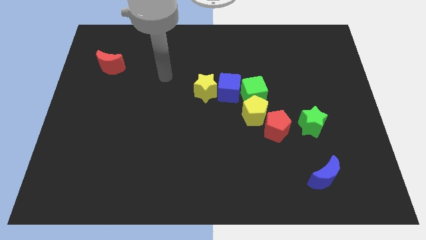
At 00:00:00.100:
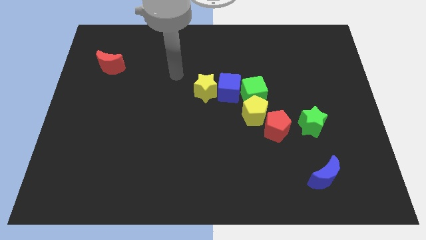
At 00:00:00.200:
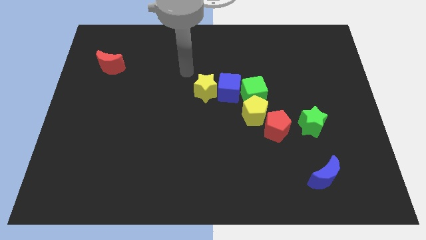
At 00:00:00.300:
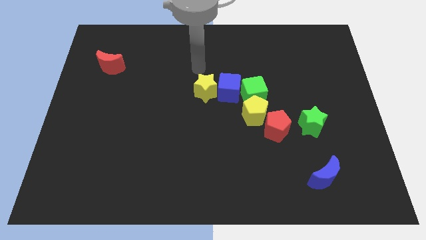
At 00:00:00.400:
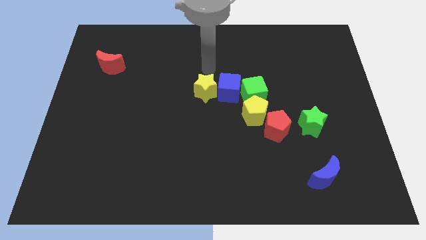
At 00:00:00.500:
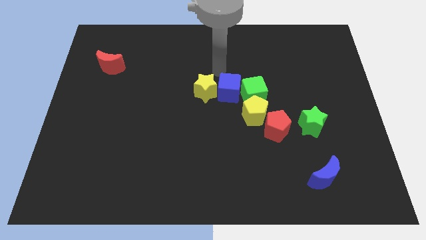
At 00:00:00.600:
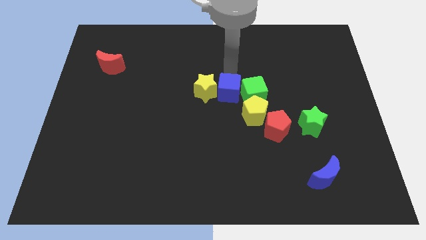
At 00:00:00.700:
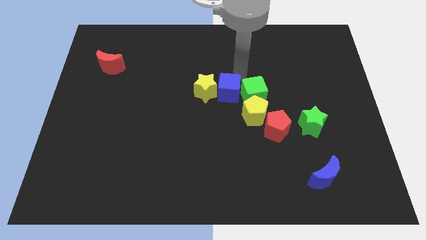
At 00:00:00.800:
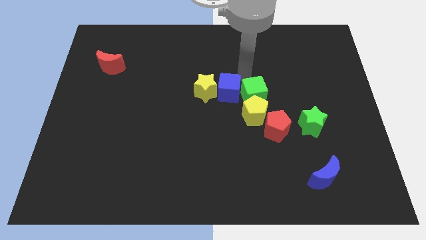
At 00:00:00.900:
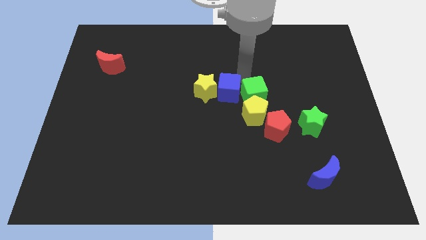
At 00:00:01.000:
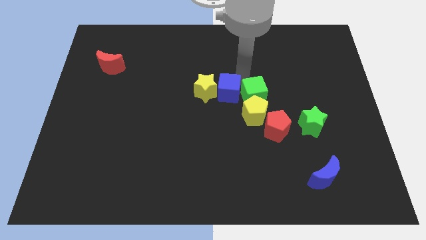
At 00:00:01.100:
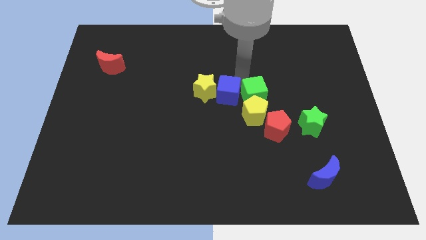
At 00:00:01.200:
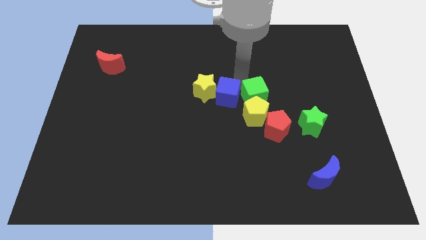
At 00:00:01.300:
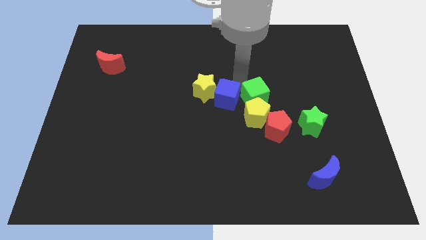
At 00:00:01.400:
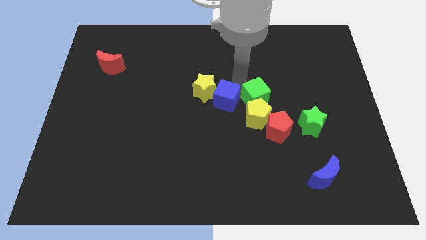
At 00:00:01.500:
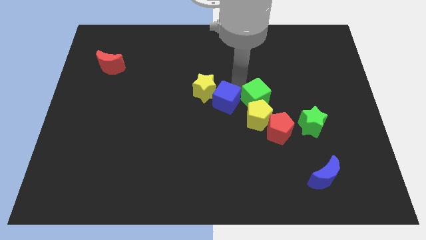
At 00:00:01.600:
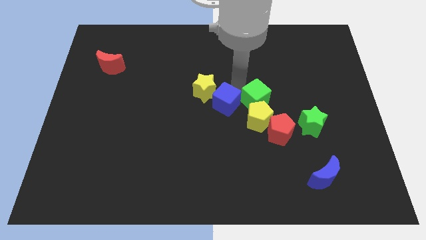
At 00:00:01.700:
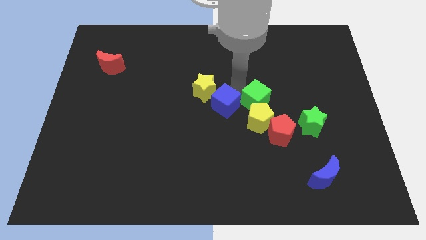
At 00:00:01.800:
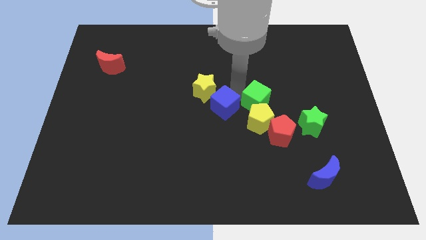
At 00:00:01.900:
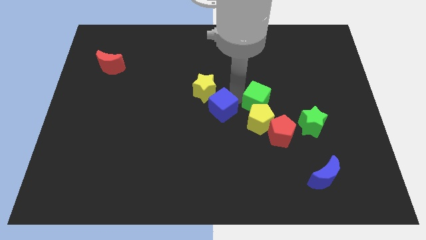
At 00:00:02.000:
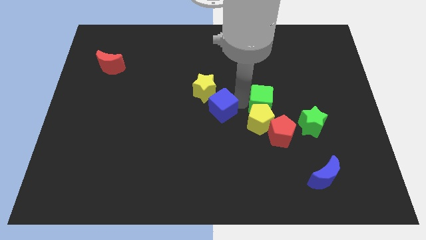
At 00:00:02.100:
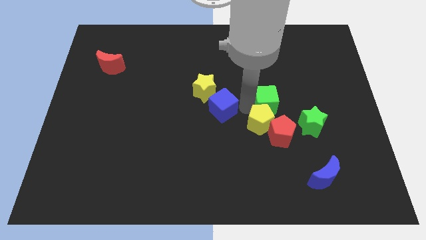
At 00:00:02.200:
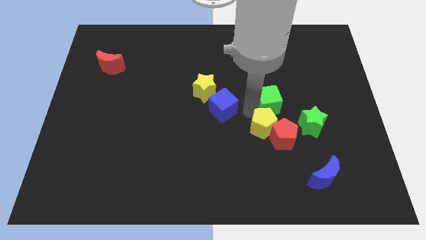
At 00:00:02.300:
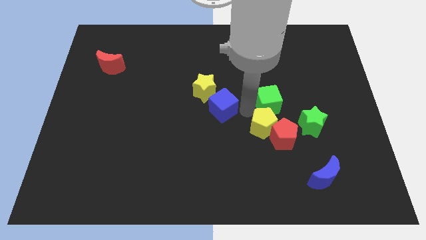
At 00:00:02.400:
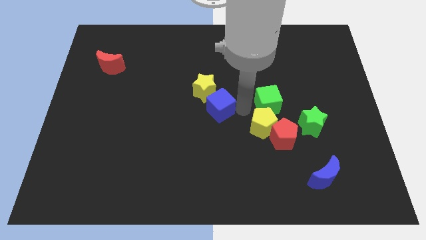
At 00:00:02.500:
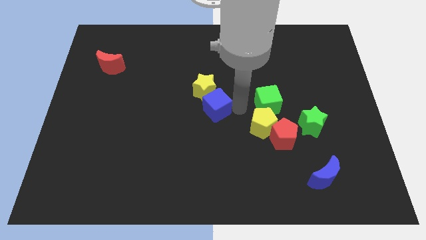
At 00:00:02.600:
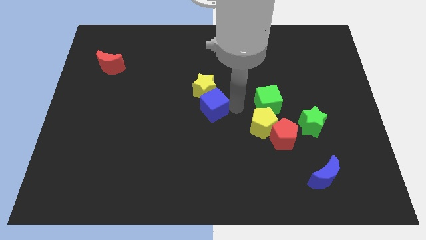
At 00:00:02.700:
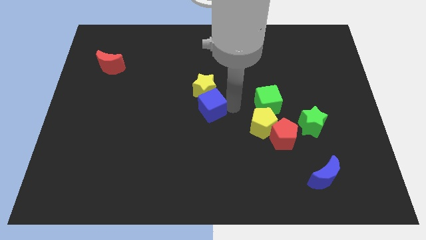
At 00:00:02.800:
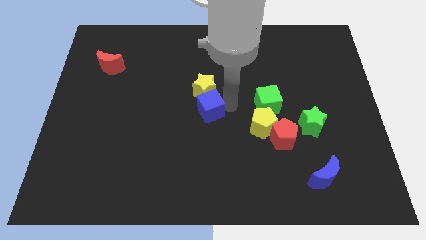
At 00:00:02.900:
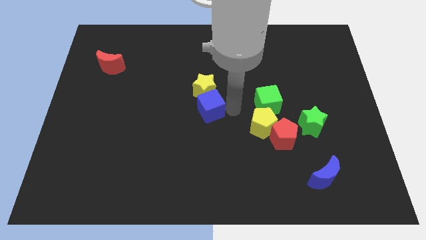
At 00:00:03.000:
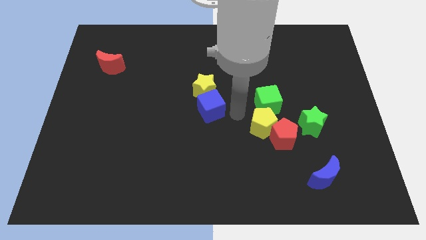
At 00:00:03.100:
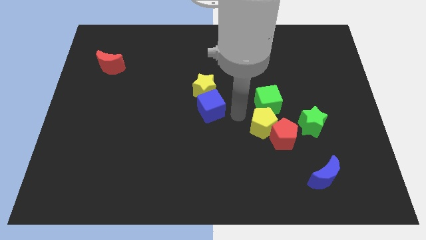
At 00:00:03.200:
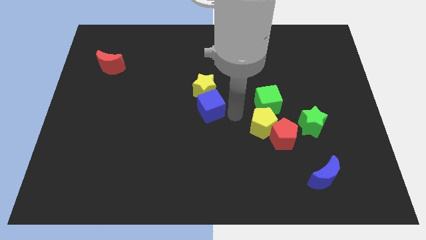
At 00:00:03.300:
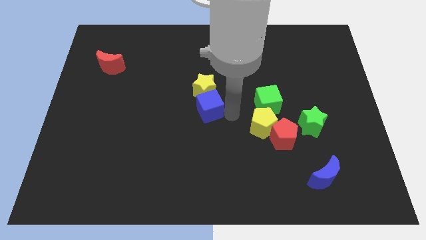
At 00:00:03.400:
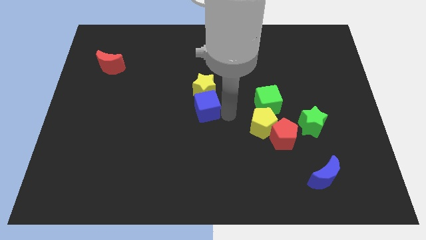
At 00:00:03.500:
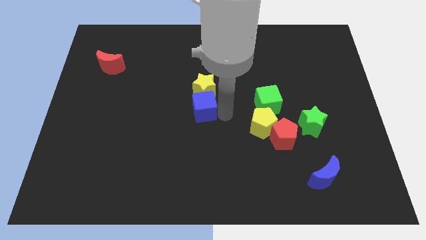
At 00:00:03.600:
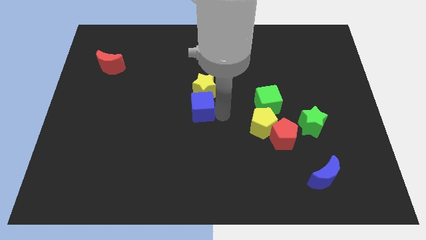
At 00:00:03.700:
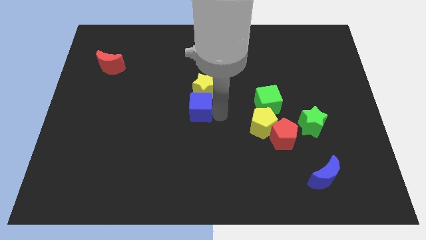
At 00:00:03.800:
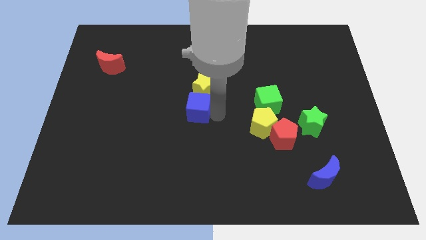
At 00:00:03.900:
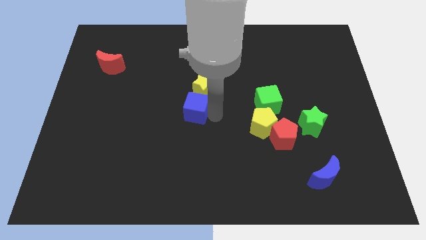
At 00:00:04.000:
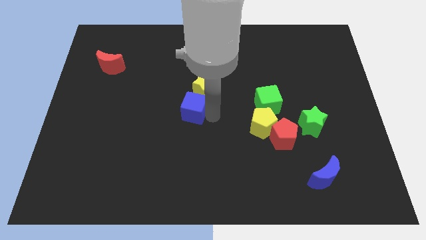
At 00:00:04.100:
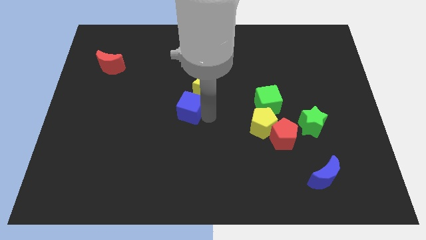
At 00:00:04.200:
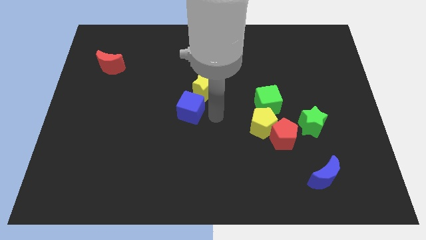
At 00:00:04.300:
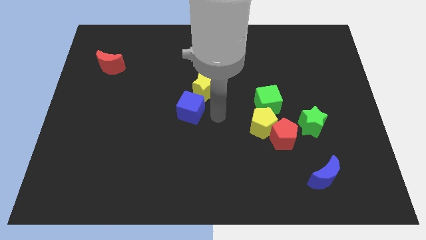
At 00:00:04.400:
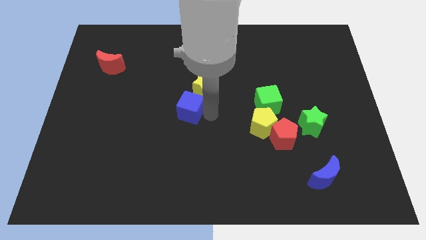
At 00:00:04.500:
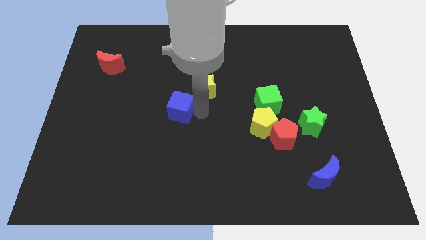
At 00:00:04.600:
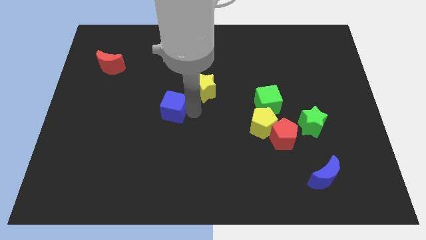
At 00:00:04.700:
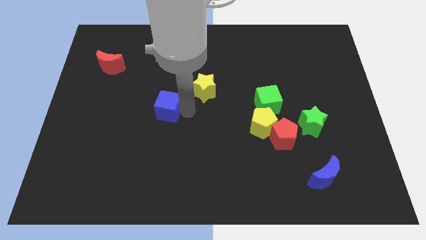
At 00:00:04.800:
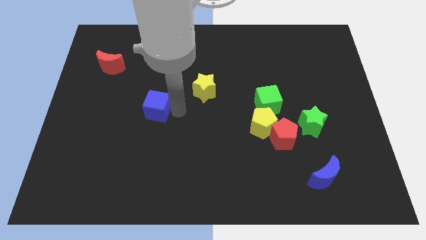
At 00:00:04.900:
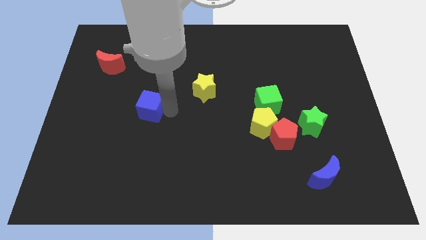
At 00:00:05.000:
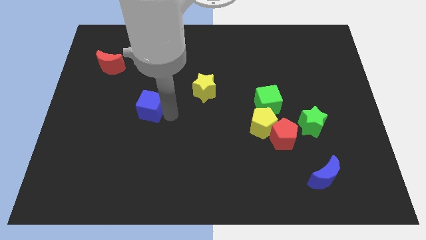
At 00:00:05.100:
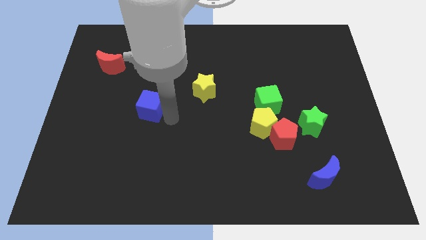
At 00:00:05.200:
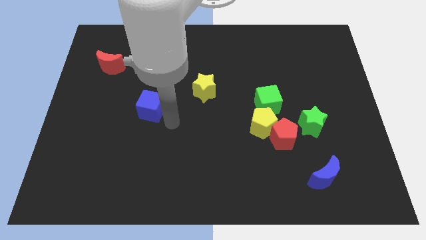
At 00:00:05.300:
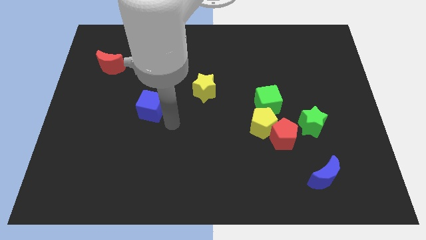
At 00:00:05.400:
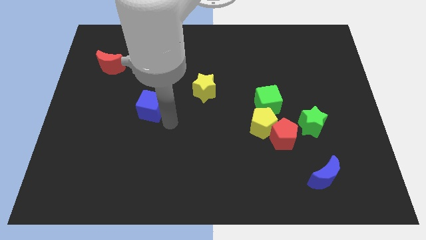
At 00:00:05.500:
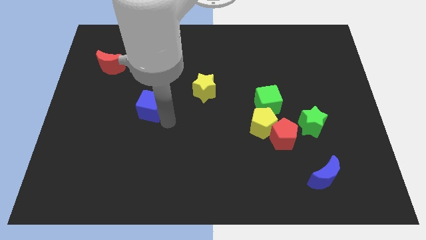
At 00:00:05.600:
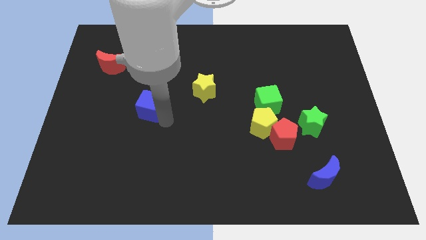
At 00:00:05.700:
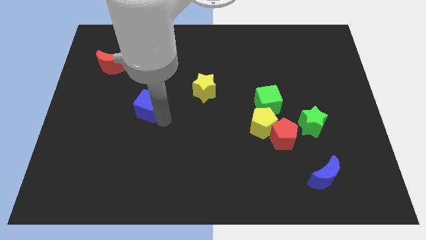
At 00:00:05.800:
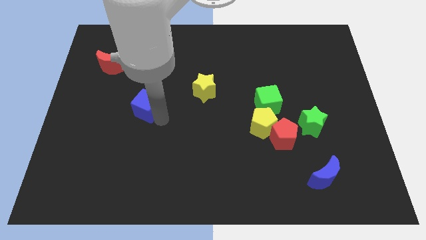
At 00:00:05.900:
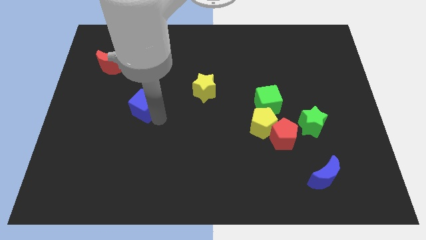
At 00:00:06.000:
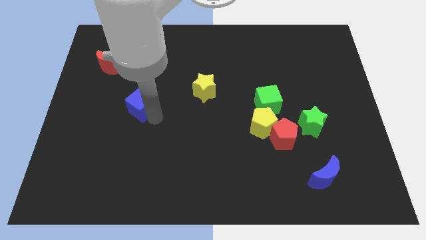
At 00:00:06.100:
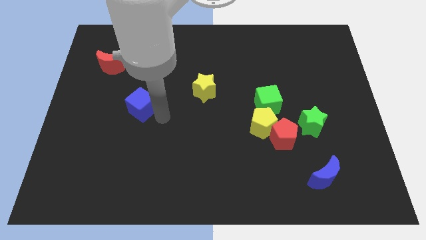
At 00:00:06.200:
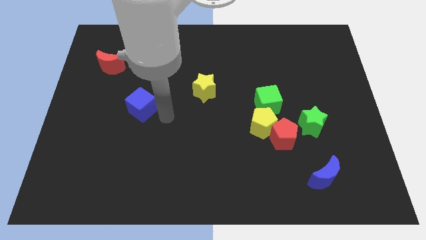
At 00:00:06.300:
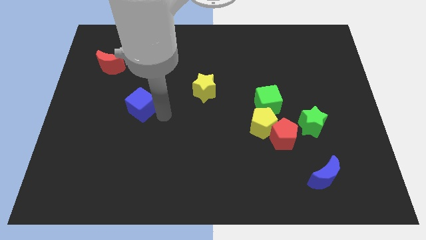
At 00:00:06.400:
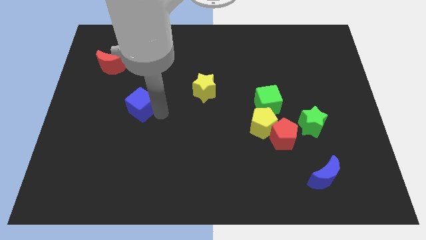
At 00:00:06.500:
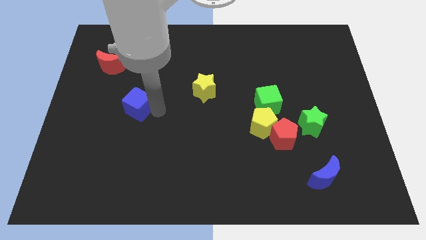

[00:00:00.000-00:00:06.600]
move the blue cube left

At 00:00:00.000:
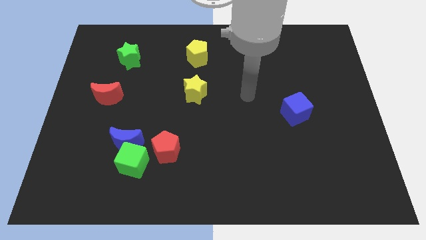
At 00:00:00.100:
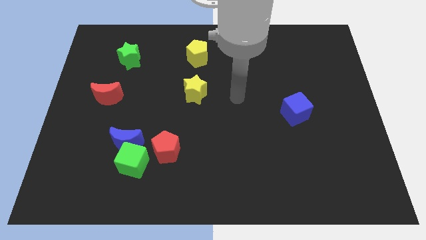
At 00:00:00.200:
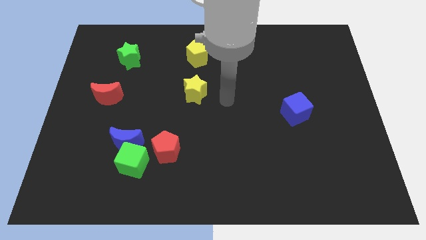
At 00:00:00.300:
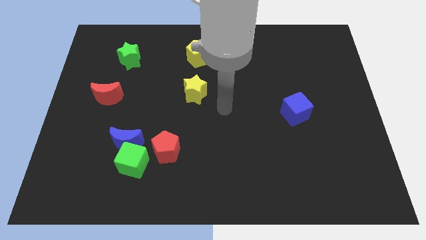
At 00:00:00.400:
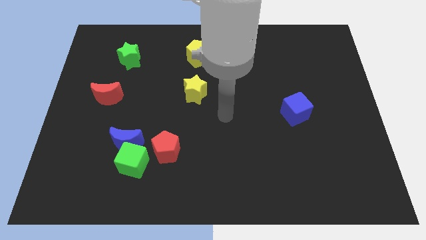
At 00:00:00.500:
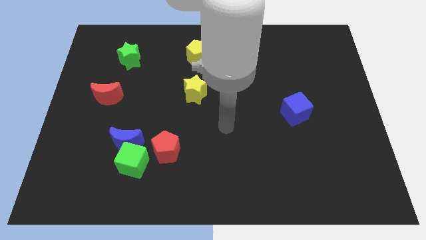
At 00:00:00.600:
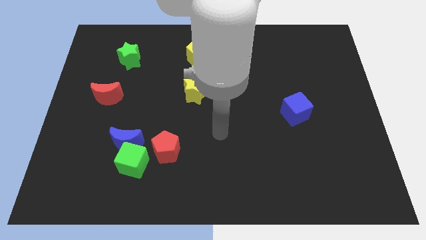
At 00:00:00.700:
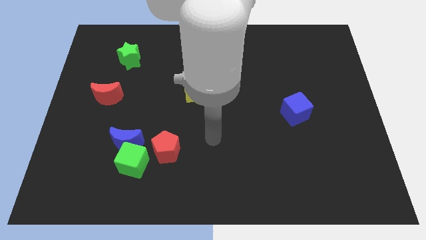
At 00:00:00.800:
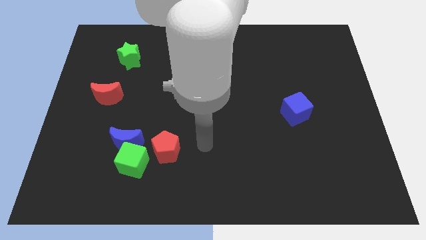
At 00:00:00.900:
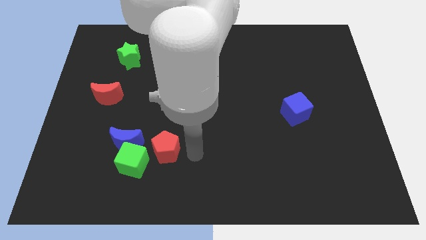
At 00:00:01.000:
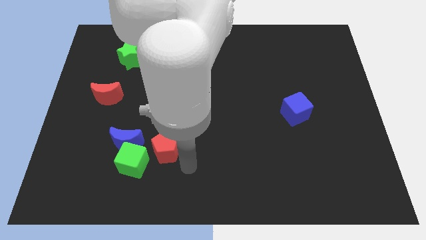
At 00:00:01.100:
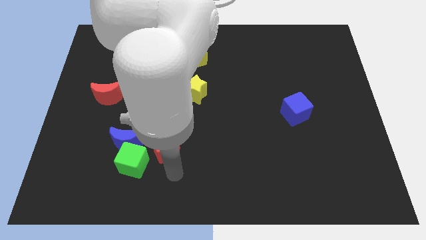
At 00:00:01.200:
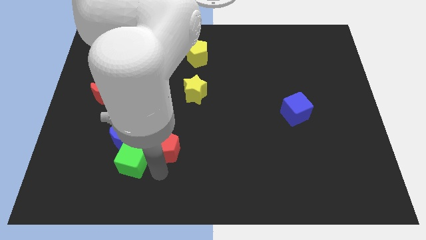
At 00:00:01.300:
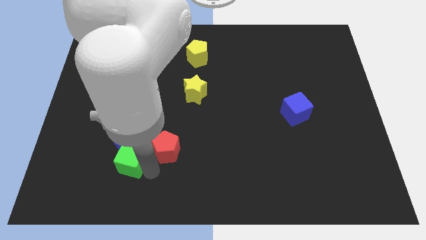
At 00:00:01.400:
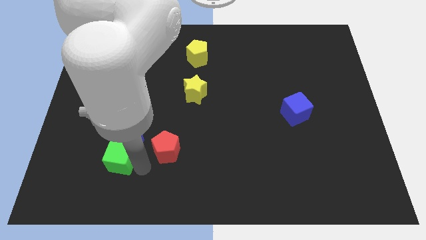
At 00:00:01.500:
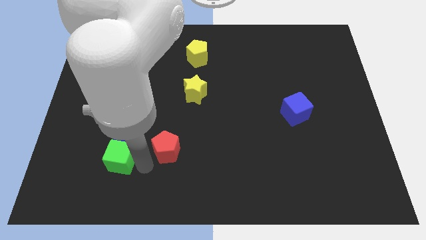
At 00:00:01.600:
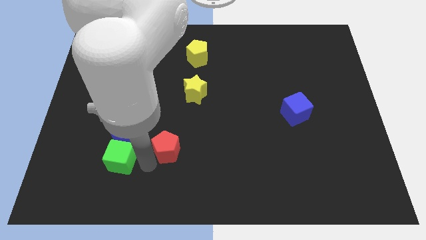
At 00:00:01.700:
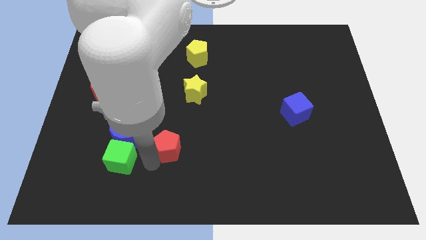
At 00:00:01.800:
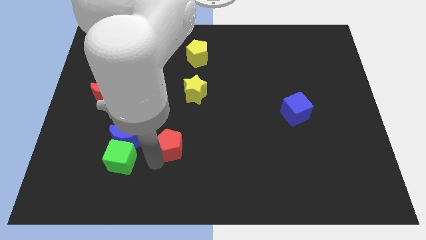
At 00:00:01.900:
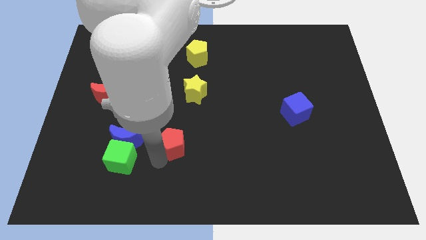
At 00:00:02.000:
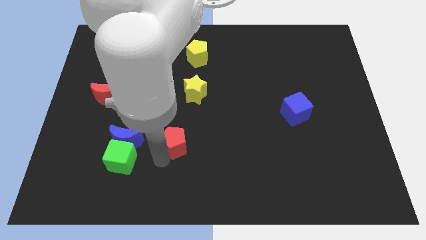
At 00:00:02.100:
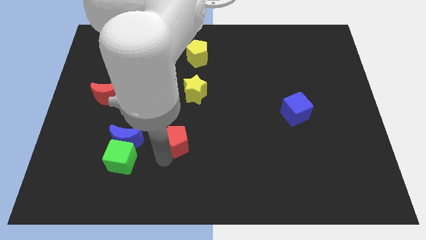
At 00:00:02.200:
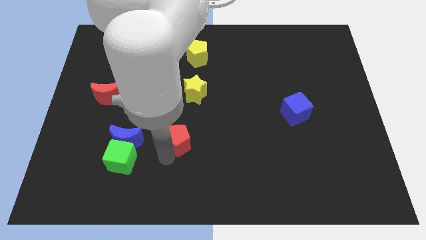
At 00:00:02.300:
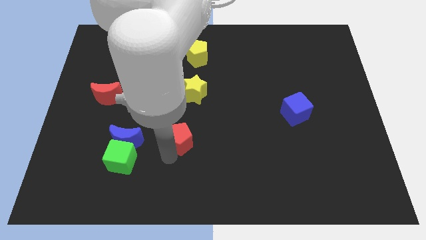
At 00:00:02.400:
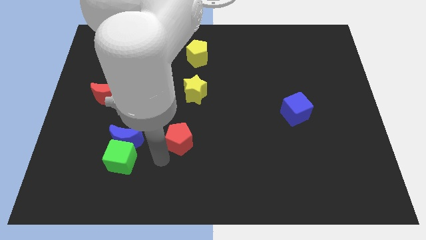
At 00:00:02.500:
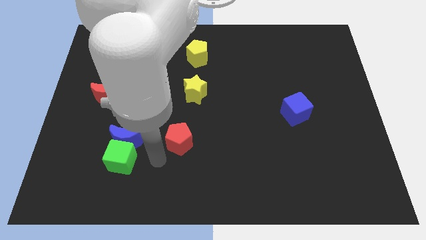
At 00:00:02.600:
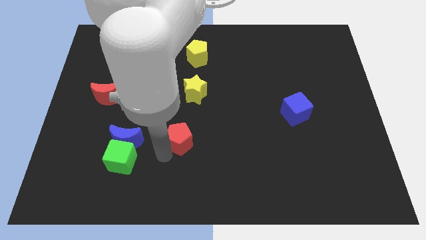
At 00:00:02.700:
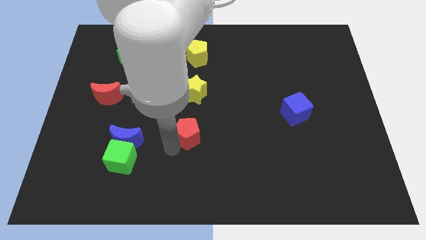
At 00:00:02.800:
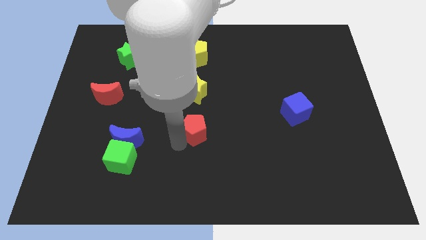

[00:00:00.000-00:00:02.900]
push the red pentagon a little diagonally up and to the right
